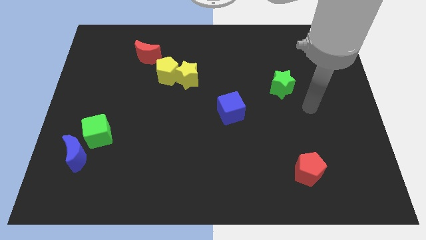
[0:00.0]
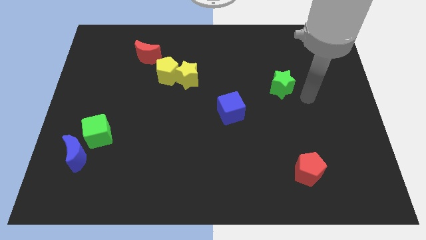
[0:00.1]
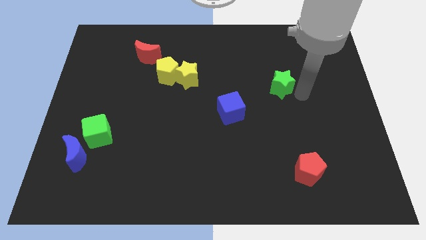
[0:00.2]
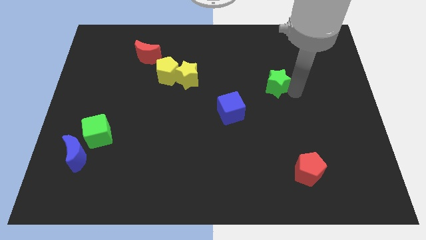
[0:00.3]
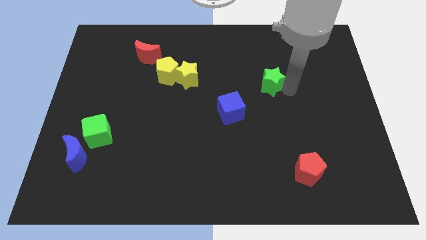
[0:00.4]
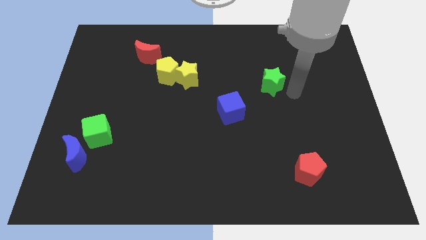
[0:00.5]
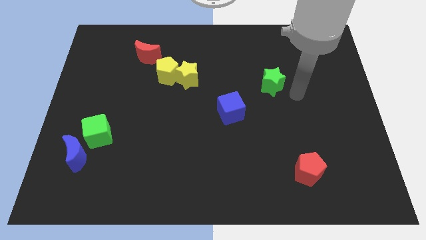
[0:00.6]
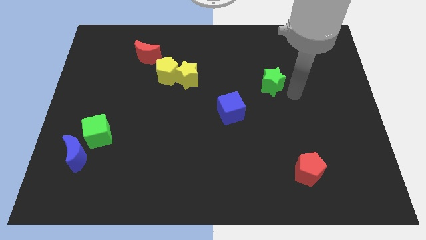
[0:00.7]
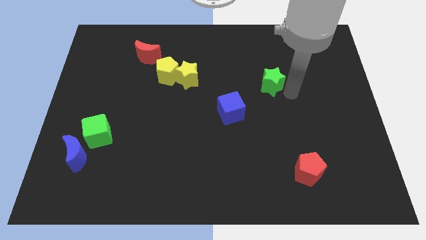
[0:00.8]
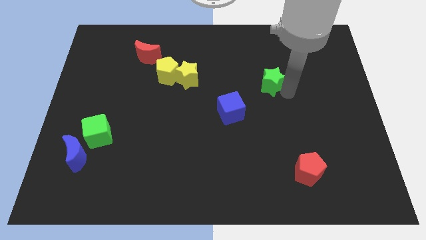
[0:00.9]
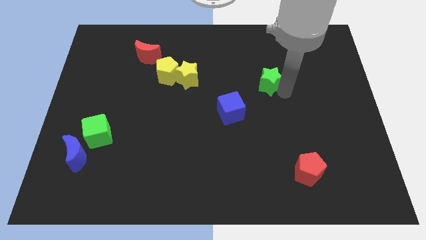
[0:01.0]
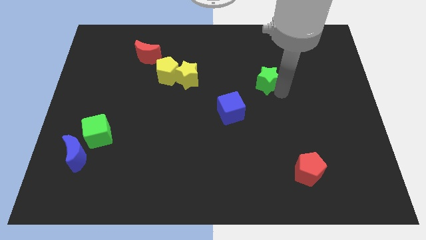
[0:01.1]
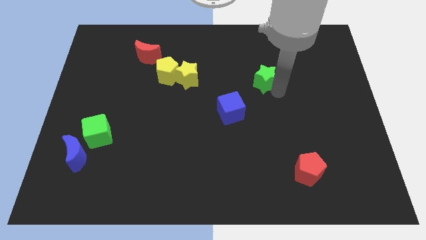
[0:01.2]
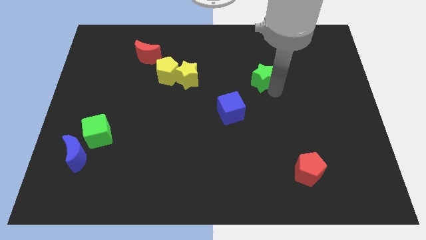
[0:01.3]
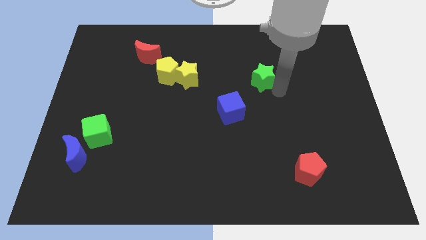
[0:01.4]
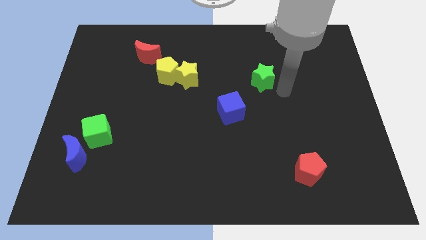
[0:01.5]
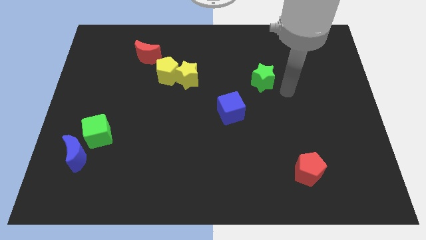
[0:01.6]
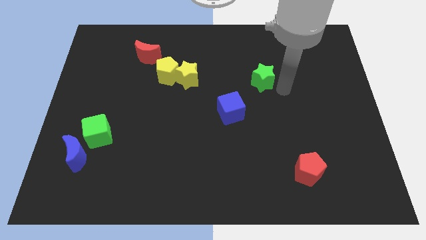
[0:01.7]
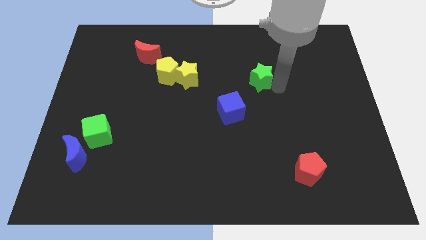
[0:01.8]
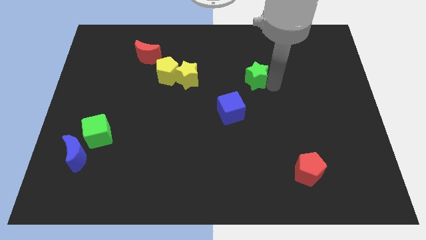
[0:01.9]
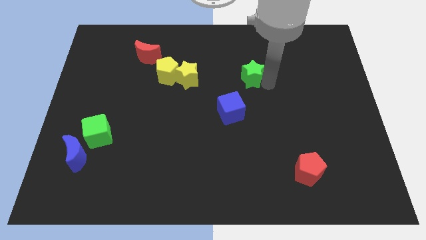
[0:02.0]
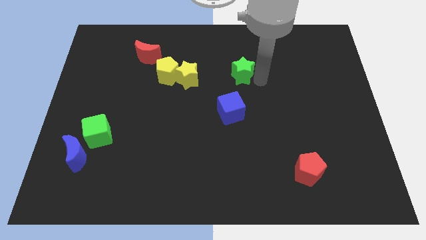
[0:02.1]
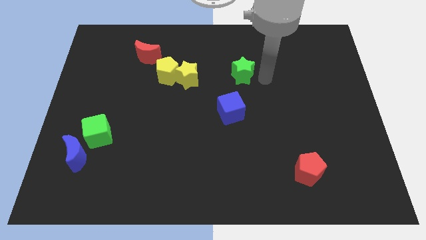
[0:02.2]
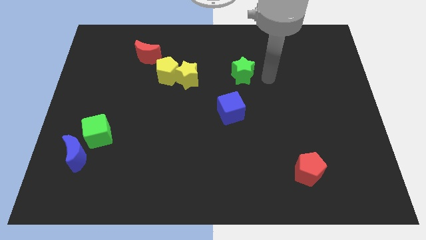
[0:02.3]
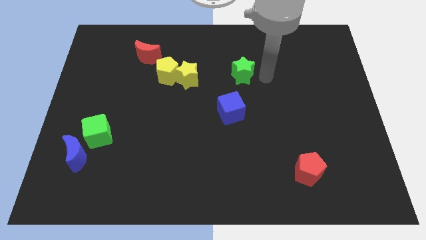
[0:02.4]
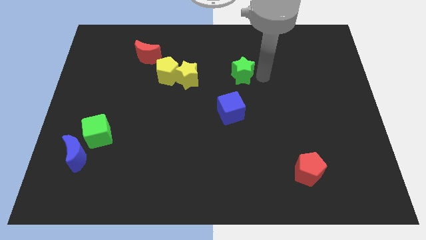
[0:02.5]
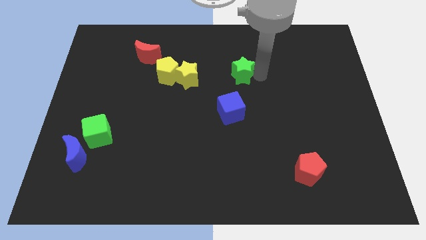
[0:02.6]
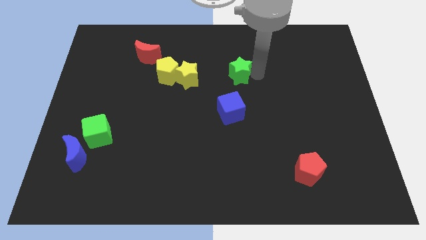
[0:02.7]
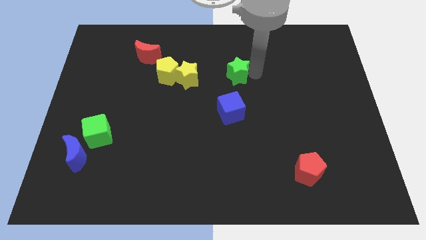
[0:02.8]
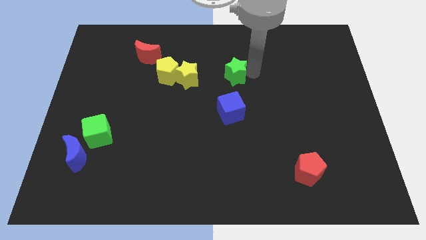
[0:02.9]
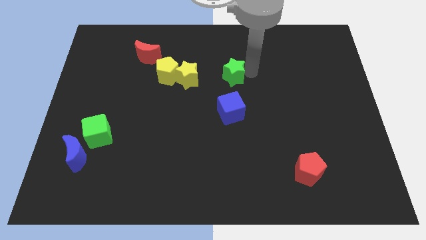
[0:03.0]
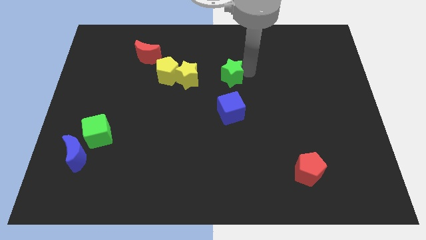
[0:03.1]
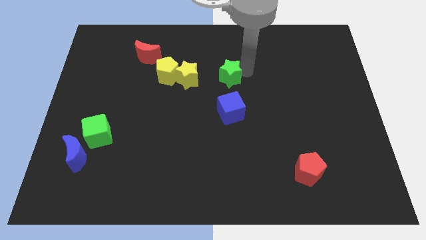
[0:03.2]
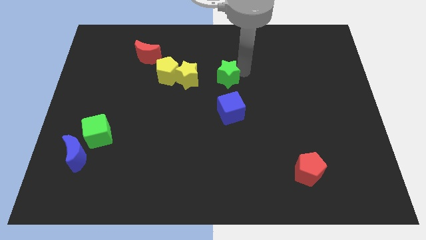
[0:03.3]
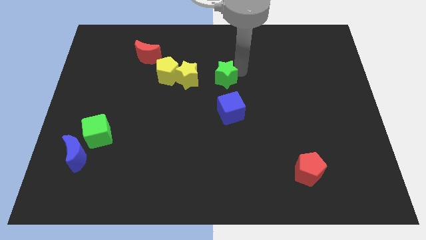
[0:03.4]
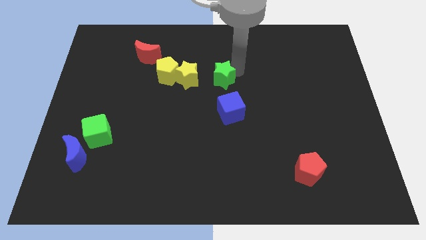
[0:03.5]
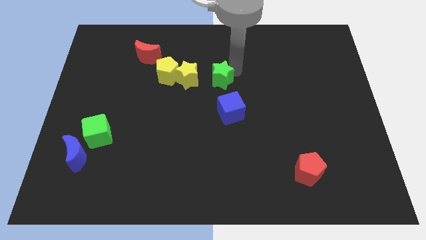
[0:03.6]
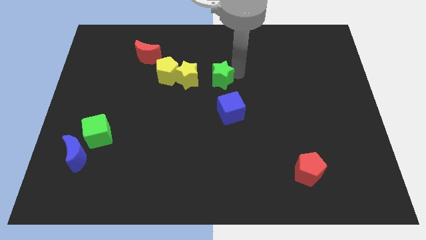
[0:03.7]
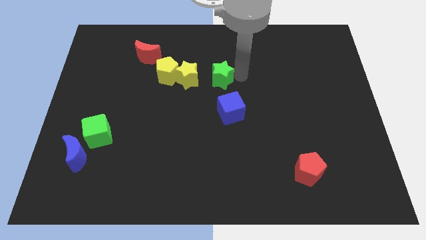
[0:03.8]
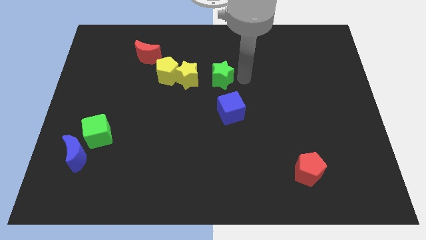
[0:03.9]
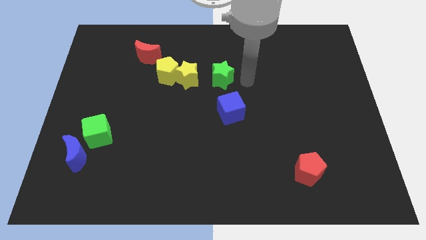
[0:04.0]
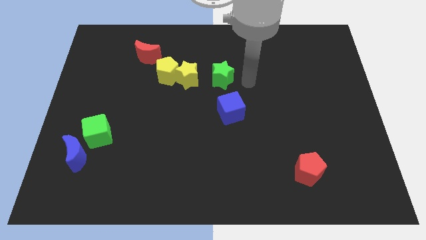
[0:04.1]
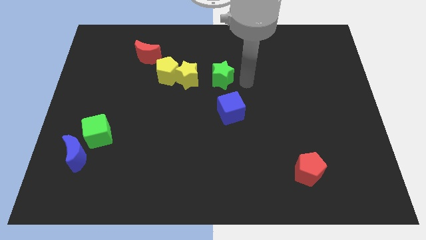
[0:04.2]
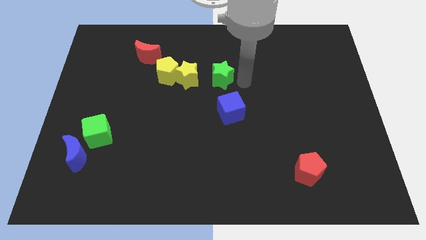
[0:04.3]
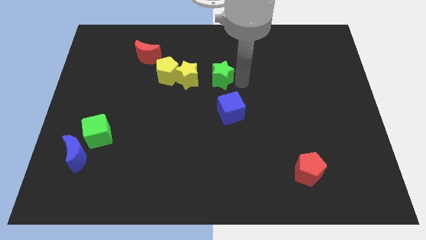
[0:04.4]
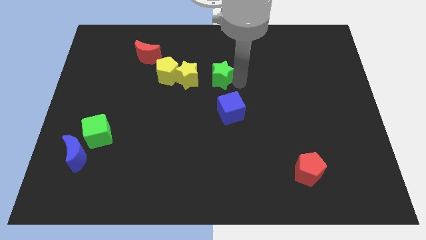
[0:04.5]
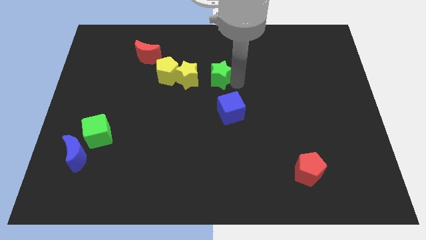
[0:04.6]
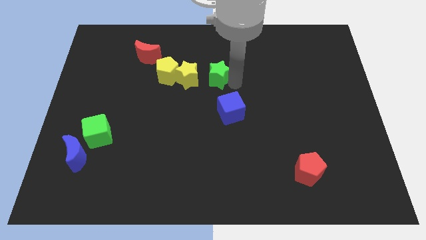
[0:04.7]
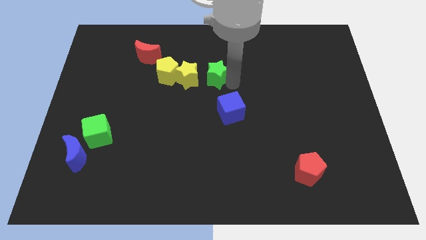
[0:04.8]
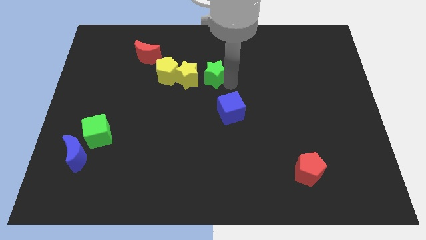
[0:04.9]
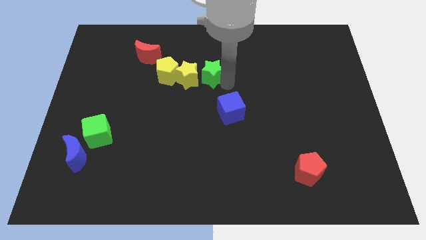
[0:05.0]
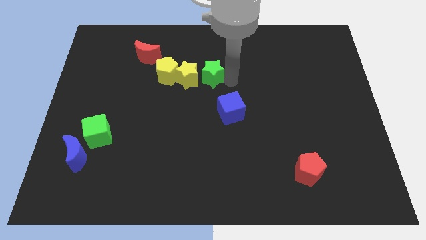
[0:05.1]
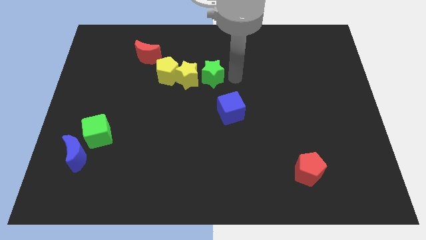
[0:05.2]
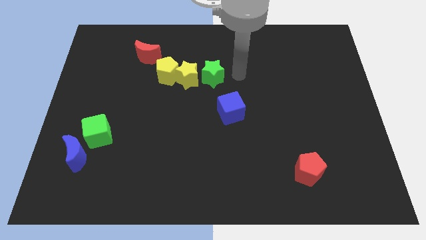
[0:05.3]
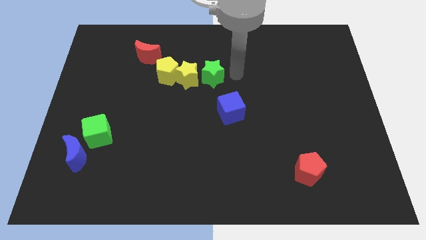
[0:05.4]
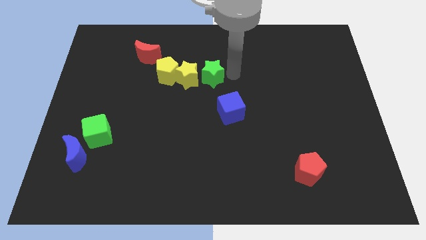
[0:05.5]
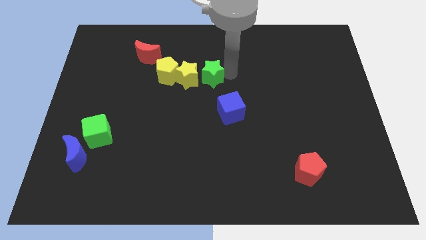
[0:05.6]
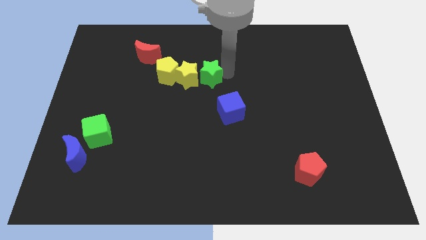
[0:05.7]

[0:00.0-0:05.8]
move the green star towards the yellow star

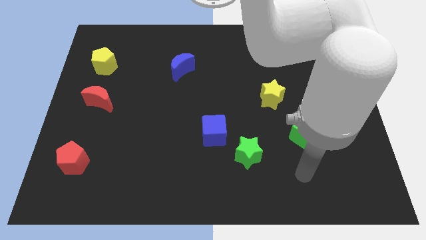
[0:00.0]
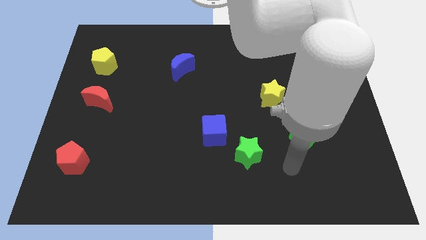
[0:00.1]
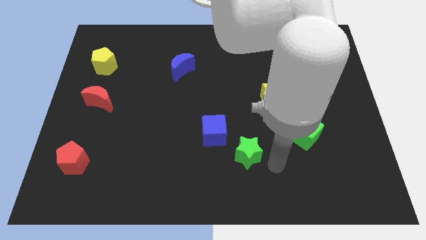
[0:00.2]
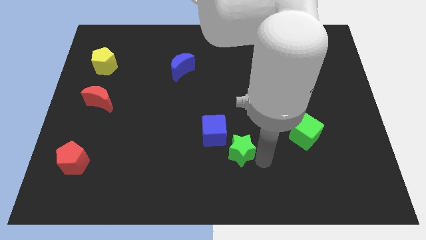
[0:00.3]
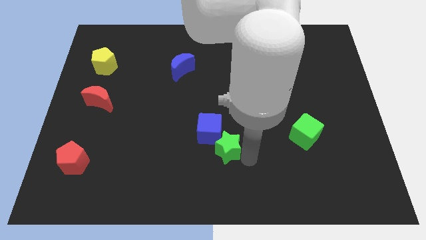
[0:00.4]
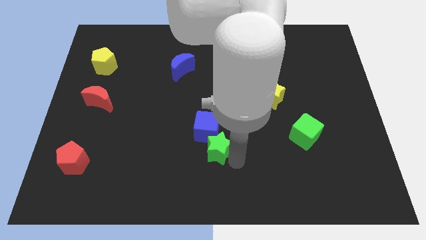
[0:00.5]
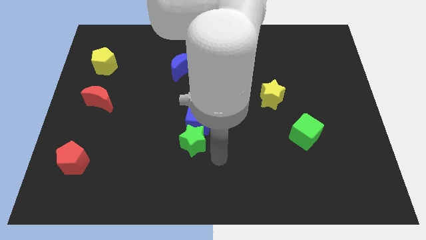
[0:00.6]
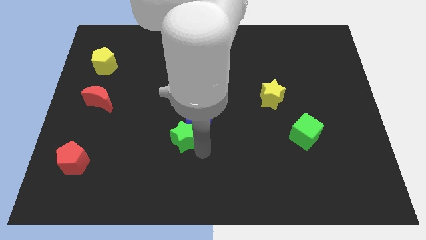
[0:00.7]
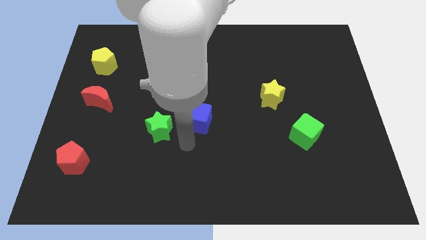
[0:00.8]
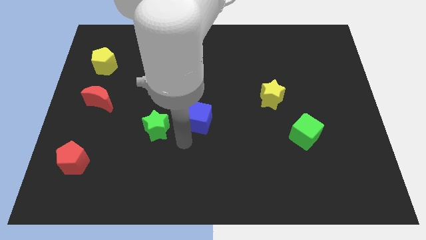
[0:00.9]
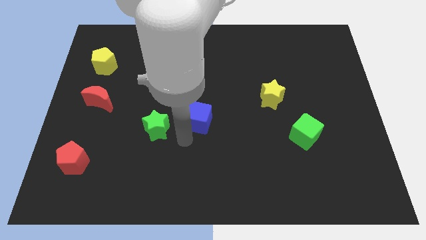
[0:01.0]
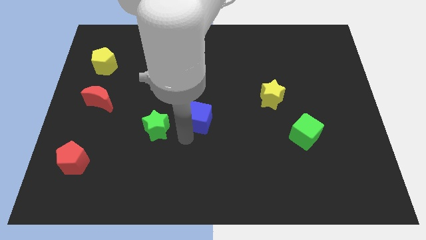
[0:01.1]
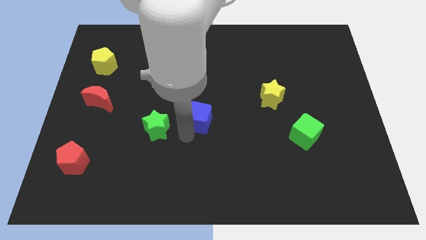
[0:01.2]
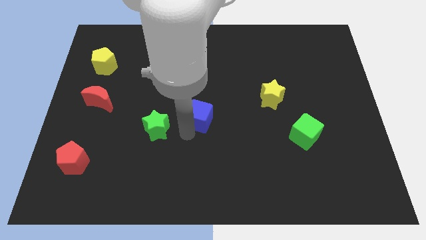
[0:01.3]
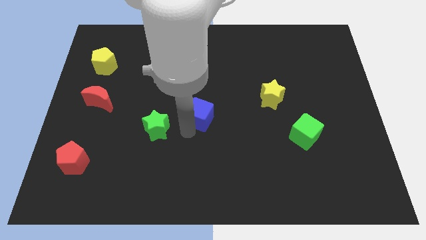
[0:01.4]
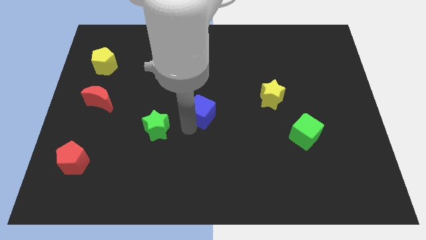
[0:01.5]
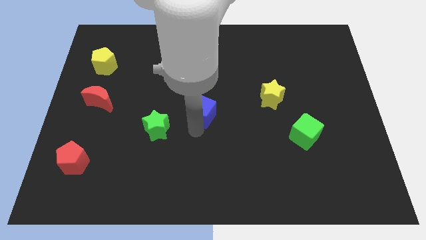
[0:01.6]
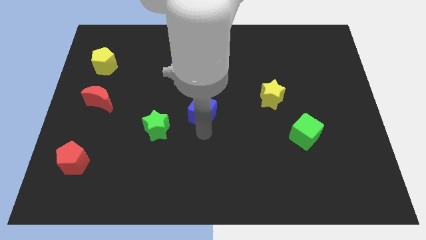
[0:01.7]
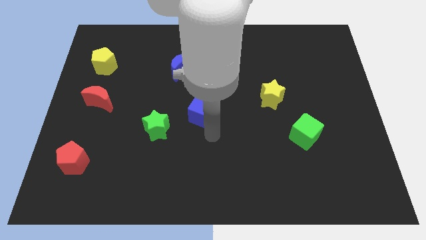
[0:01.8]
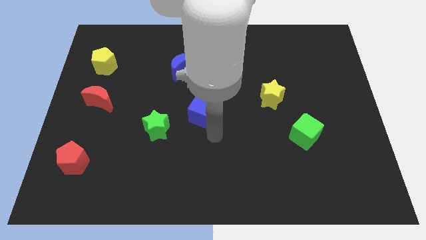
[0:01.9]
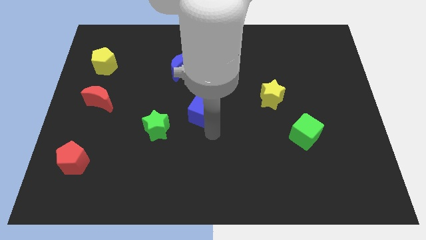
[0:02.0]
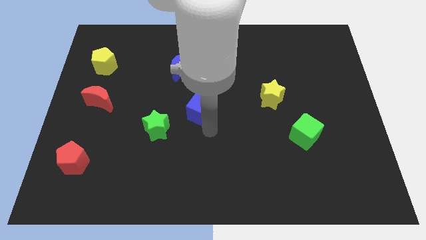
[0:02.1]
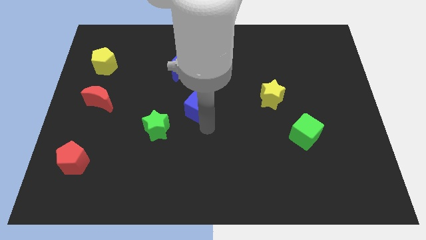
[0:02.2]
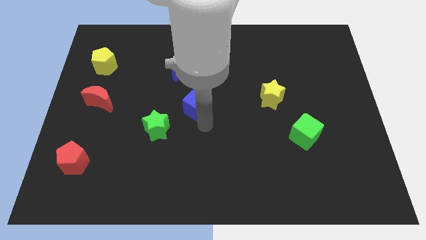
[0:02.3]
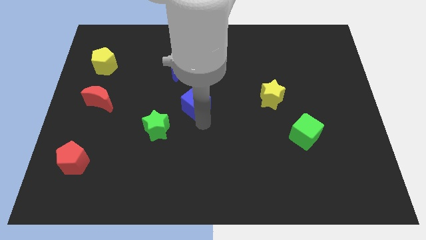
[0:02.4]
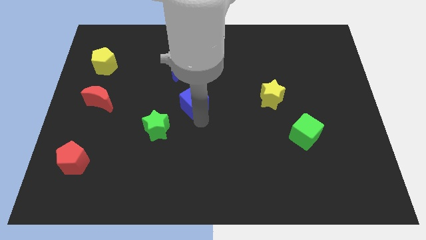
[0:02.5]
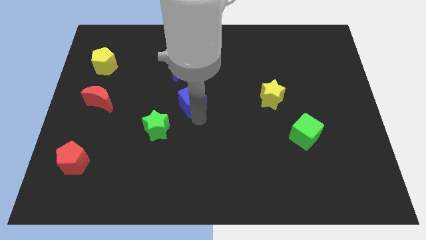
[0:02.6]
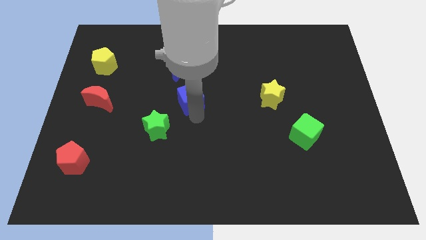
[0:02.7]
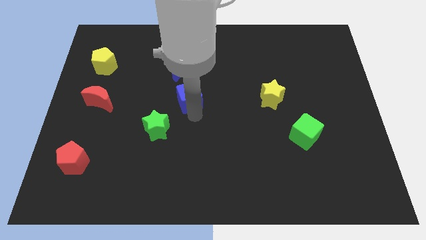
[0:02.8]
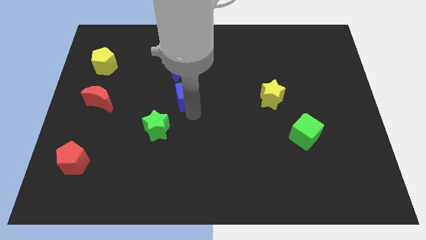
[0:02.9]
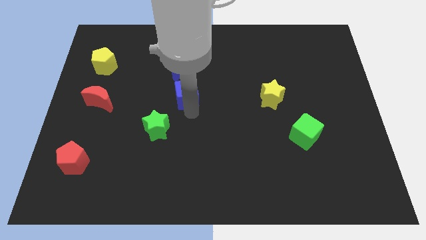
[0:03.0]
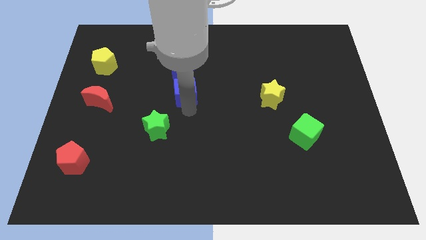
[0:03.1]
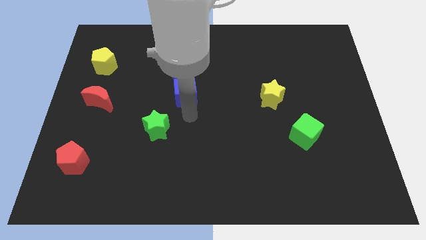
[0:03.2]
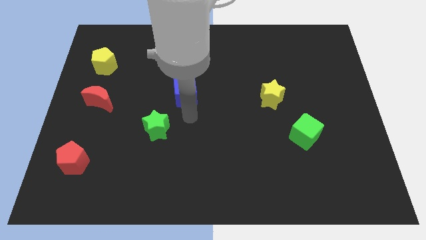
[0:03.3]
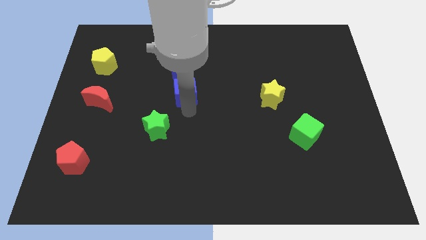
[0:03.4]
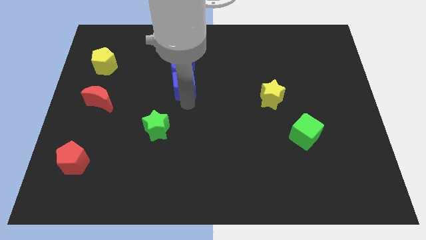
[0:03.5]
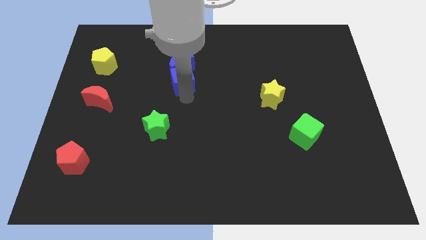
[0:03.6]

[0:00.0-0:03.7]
push the blue cube close to the blue moon
